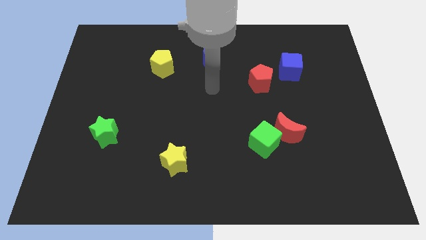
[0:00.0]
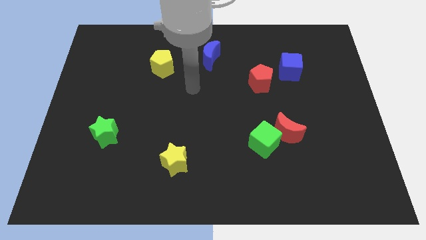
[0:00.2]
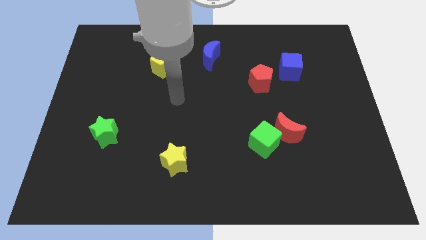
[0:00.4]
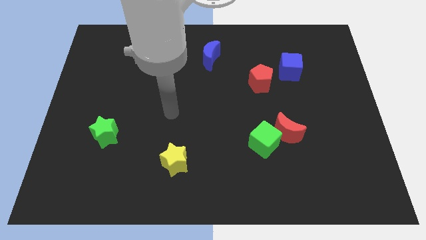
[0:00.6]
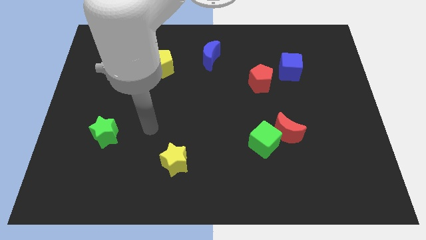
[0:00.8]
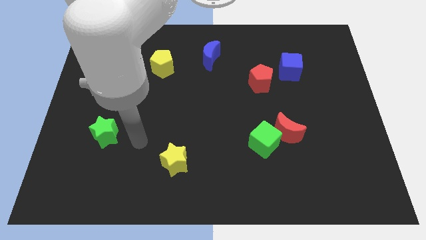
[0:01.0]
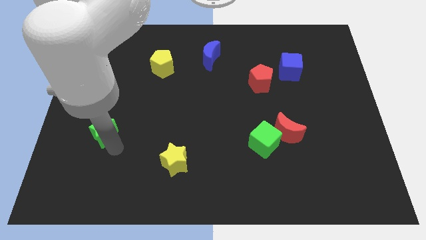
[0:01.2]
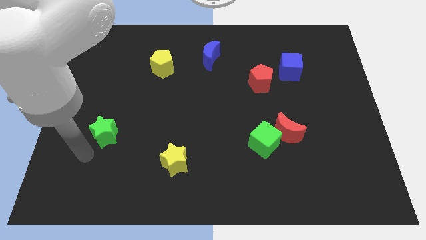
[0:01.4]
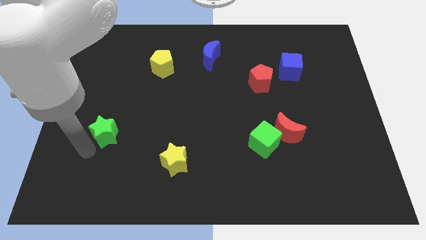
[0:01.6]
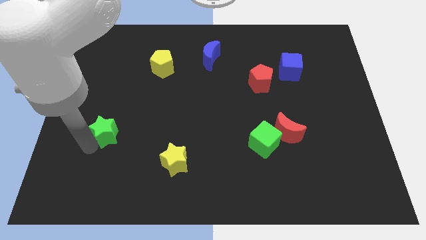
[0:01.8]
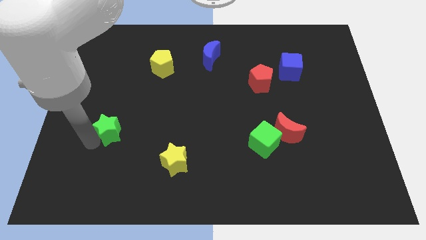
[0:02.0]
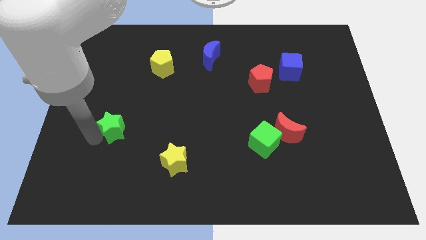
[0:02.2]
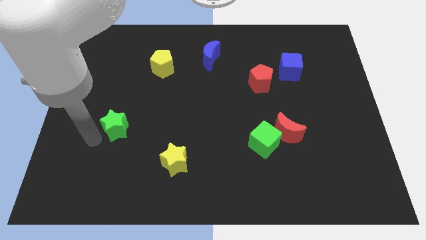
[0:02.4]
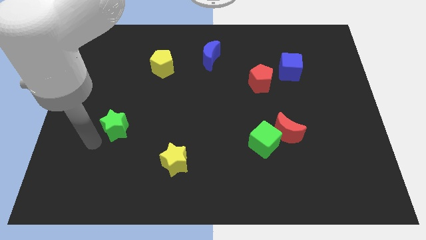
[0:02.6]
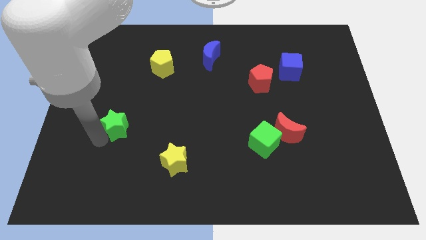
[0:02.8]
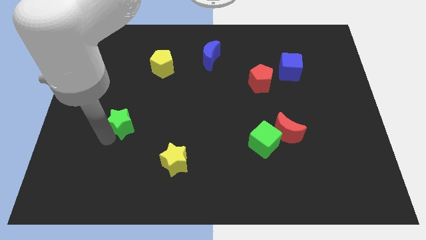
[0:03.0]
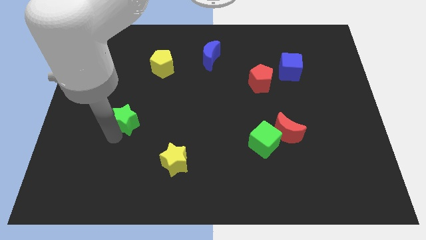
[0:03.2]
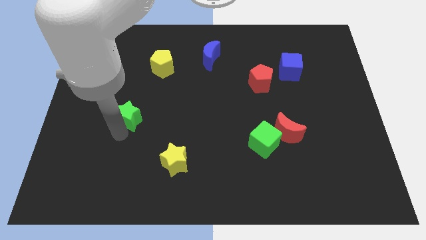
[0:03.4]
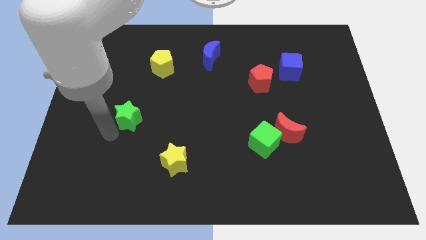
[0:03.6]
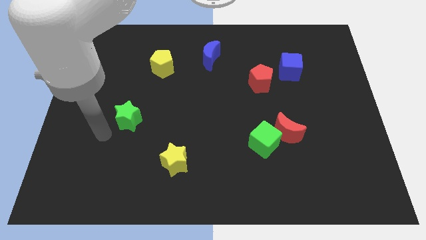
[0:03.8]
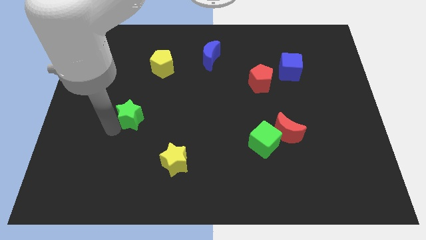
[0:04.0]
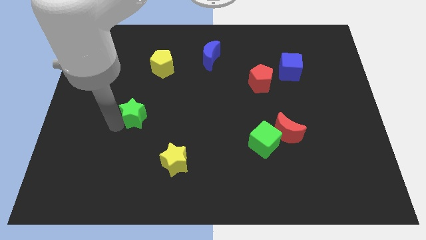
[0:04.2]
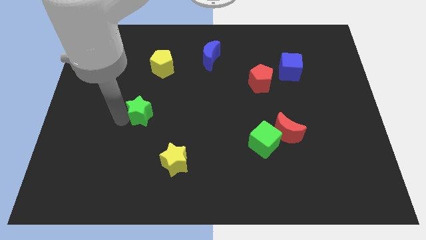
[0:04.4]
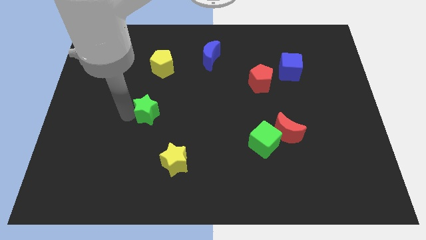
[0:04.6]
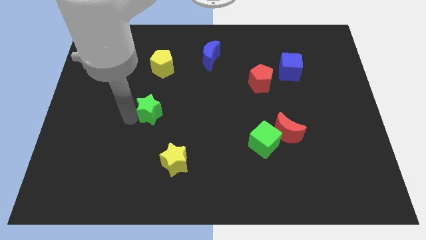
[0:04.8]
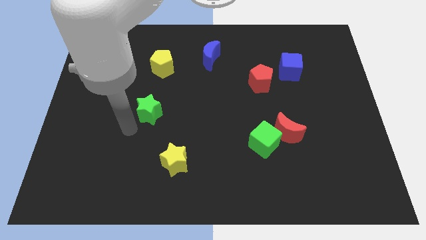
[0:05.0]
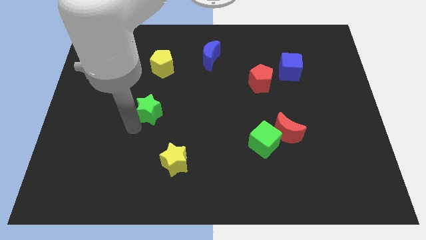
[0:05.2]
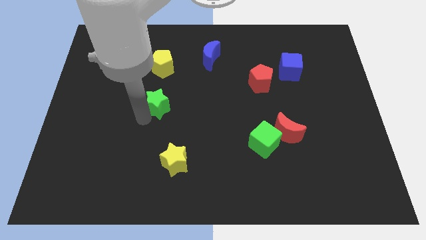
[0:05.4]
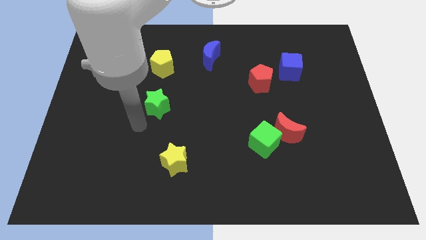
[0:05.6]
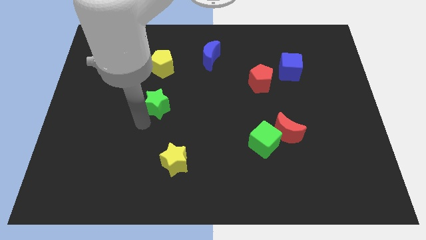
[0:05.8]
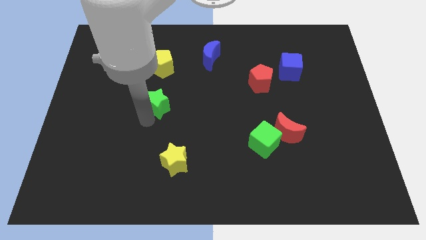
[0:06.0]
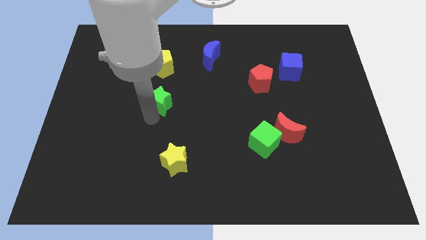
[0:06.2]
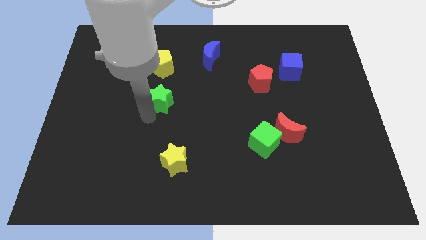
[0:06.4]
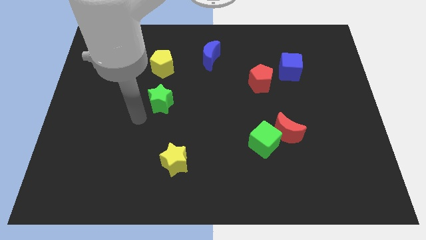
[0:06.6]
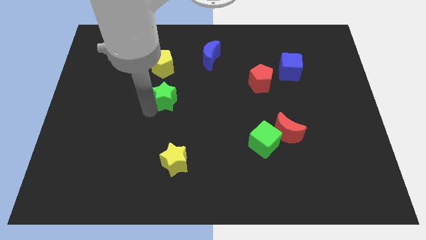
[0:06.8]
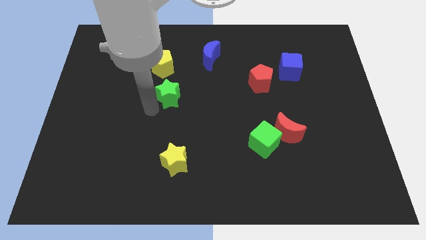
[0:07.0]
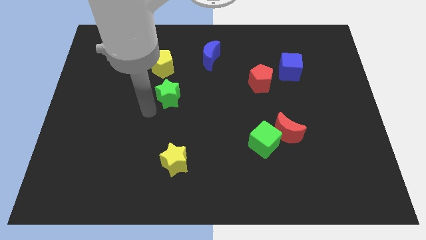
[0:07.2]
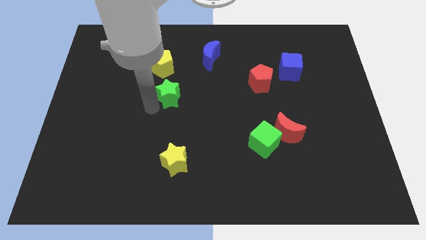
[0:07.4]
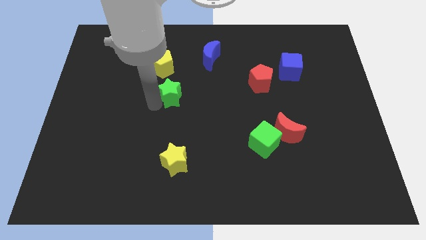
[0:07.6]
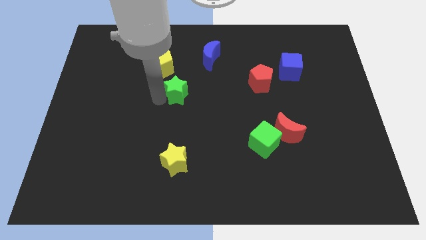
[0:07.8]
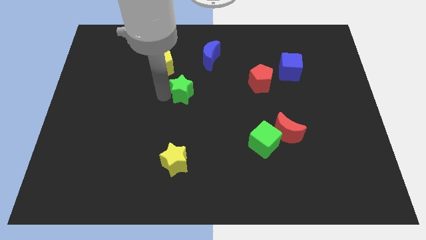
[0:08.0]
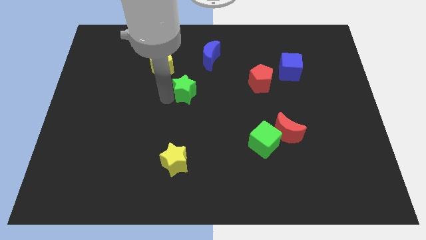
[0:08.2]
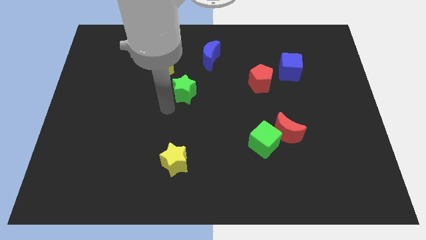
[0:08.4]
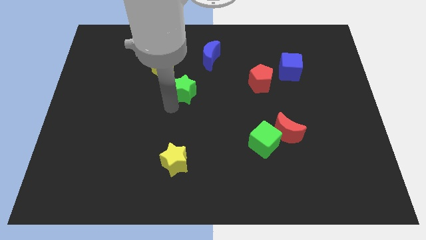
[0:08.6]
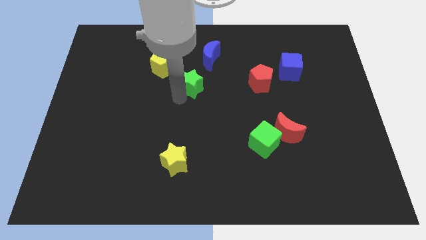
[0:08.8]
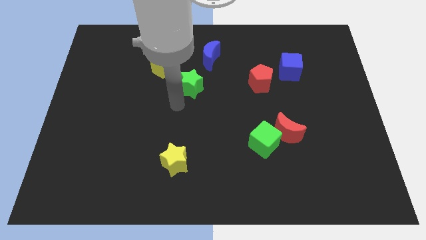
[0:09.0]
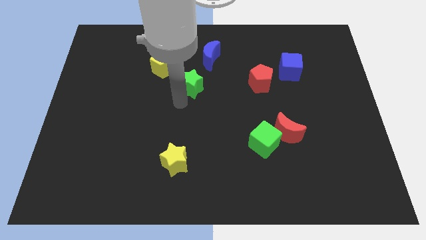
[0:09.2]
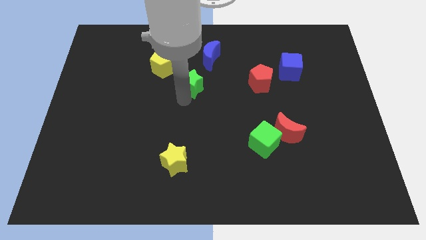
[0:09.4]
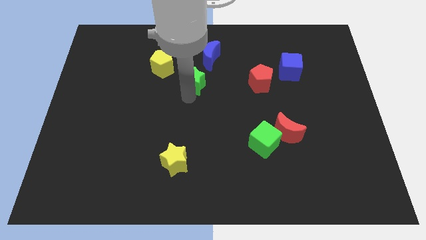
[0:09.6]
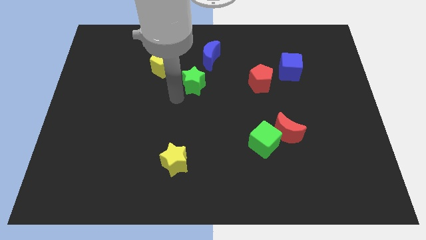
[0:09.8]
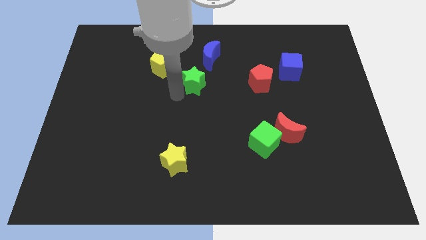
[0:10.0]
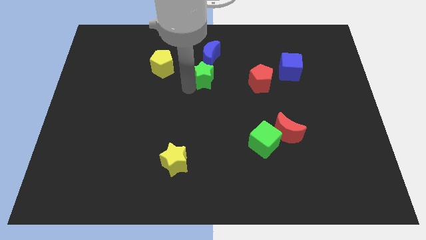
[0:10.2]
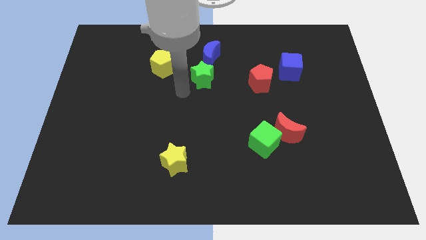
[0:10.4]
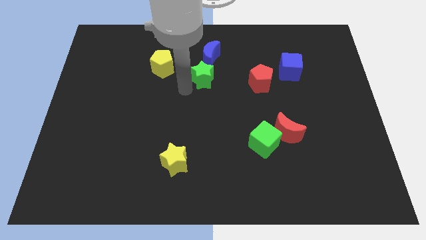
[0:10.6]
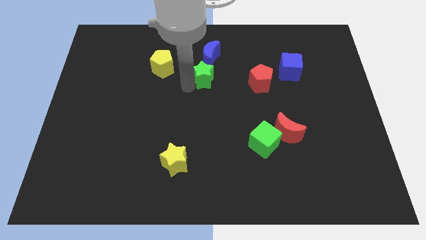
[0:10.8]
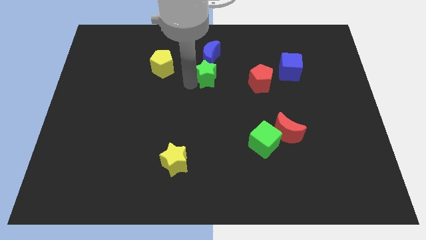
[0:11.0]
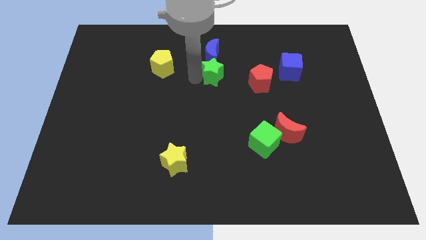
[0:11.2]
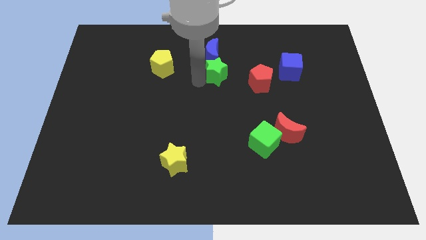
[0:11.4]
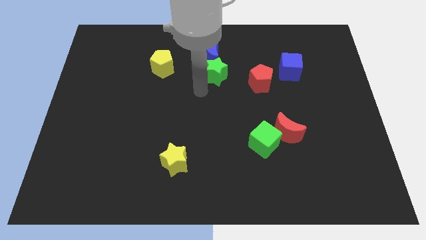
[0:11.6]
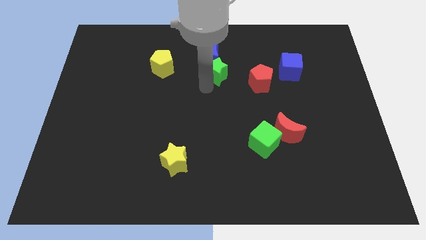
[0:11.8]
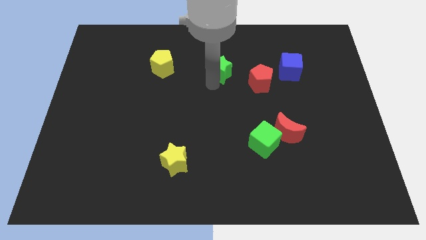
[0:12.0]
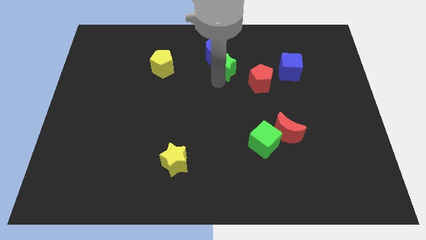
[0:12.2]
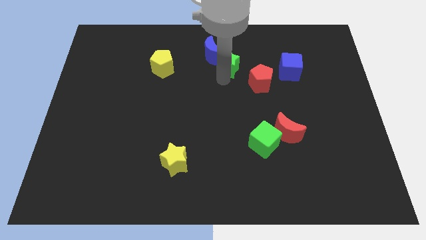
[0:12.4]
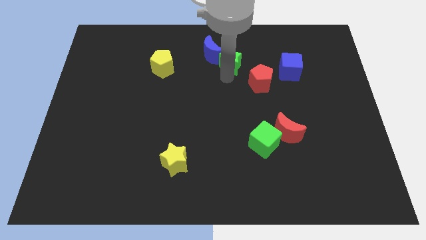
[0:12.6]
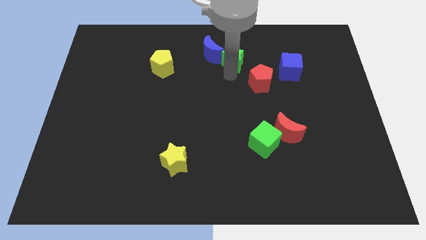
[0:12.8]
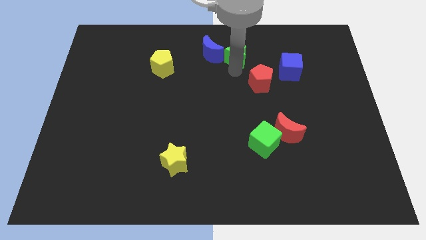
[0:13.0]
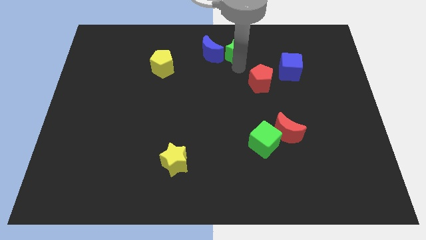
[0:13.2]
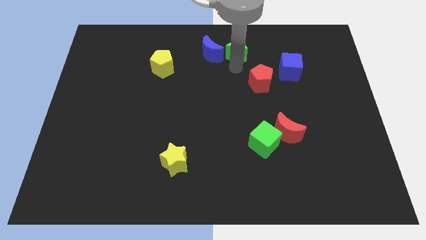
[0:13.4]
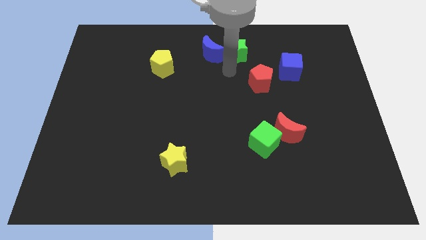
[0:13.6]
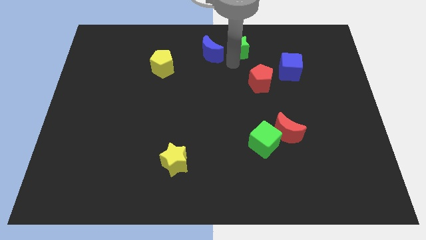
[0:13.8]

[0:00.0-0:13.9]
push the green star to the top
